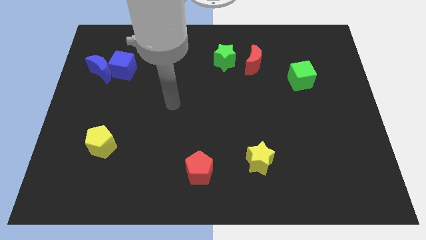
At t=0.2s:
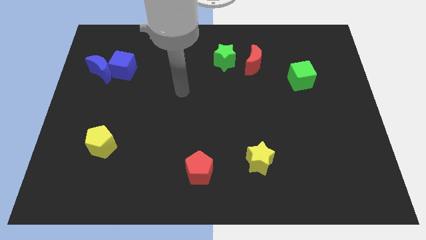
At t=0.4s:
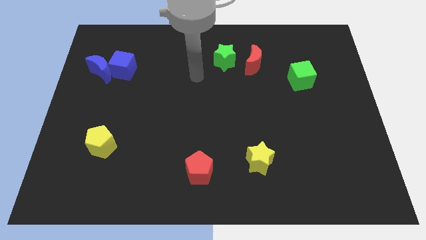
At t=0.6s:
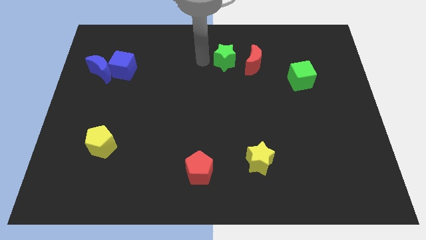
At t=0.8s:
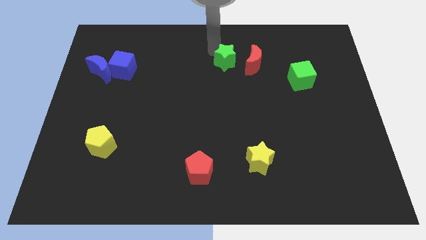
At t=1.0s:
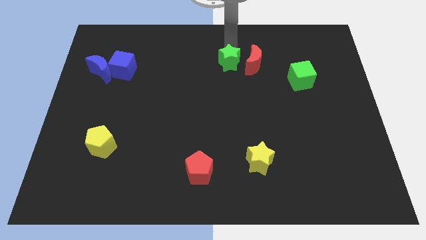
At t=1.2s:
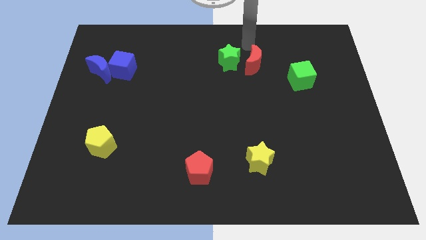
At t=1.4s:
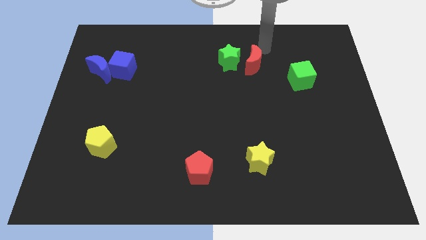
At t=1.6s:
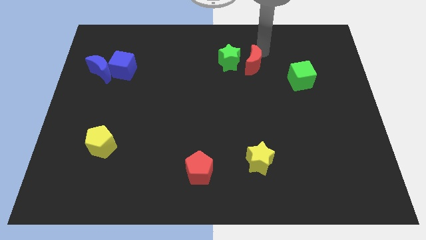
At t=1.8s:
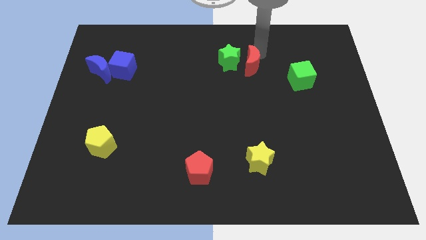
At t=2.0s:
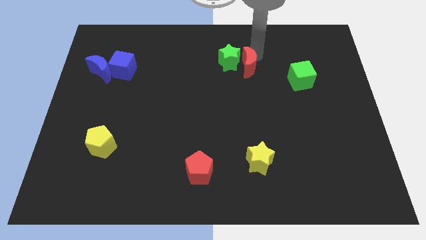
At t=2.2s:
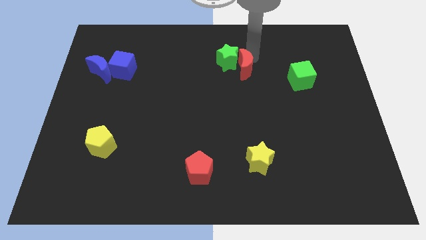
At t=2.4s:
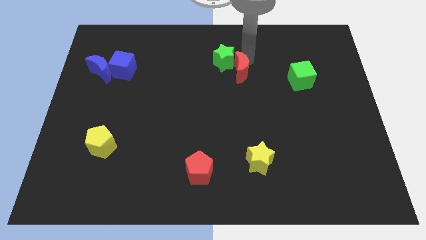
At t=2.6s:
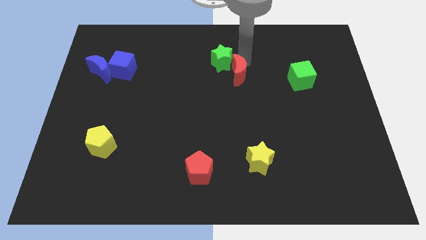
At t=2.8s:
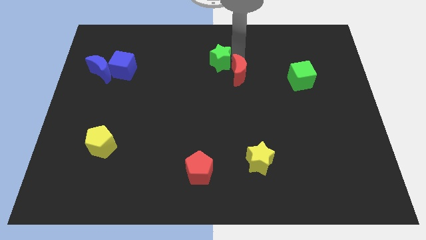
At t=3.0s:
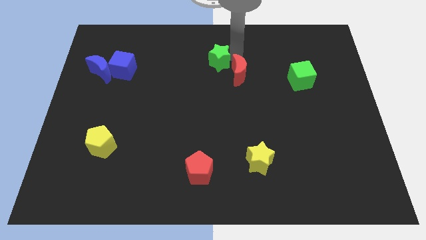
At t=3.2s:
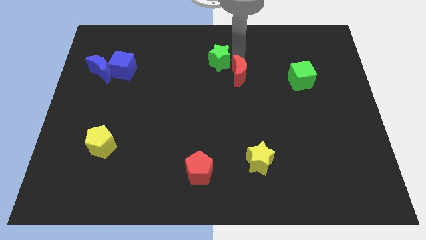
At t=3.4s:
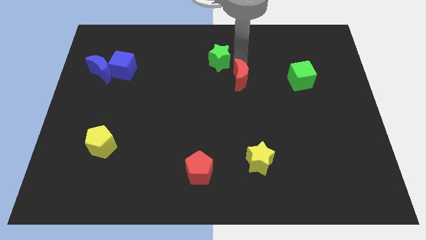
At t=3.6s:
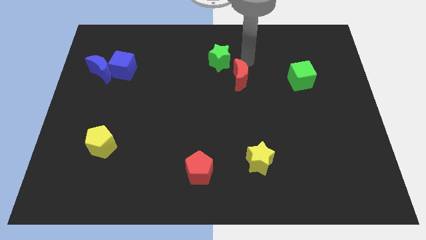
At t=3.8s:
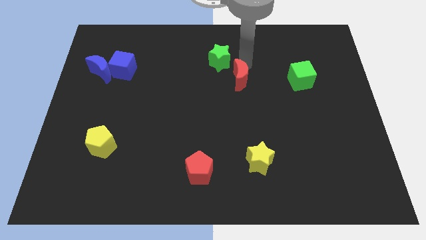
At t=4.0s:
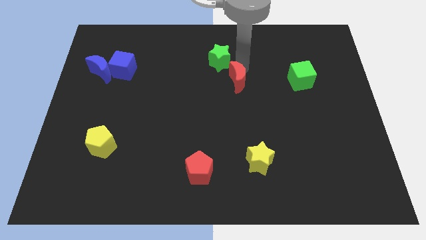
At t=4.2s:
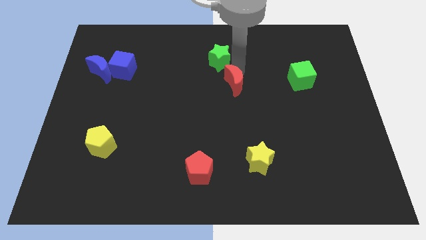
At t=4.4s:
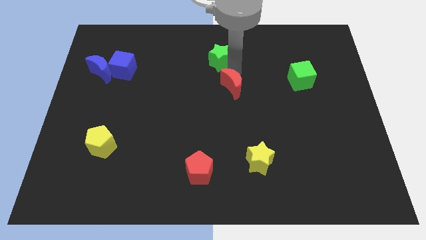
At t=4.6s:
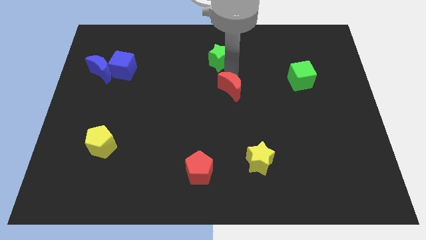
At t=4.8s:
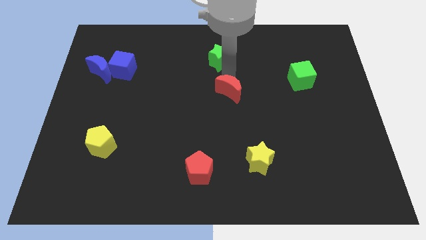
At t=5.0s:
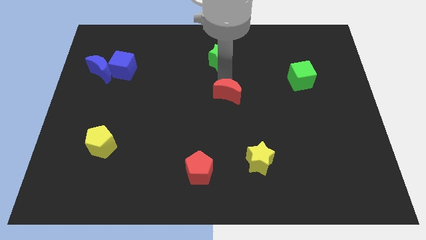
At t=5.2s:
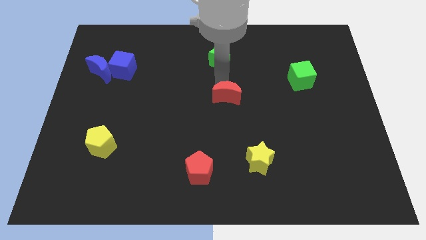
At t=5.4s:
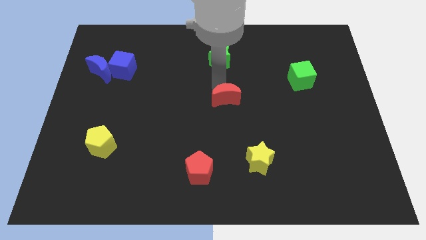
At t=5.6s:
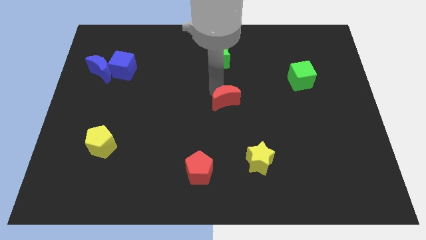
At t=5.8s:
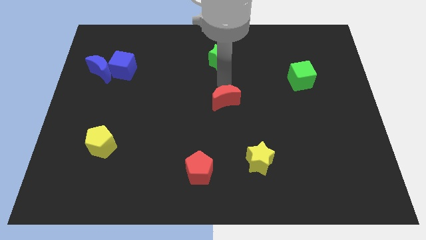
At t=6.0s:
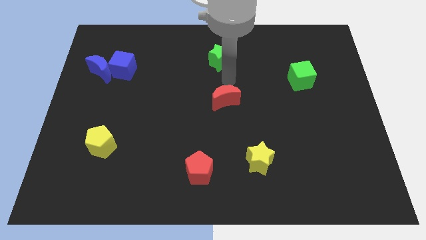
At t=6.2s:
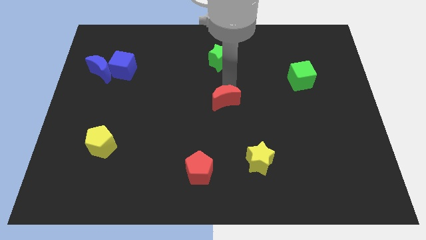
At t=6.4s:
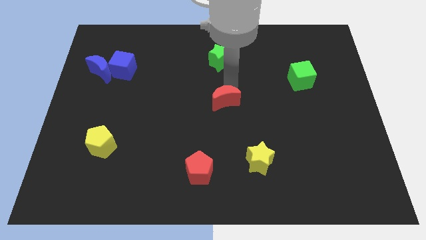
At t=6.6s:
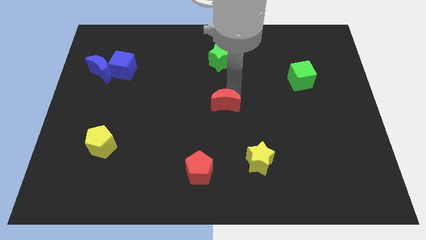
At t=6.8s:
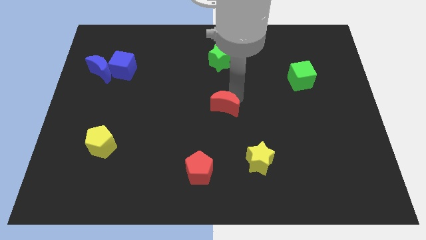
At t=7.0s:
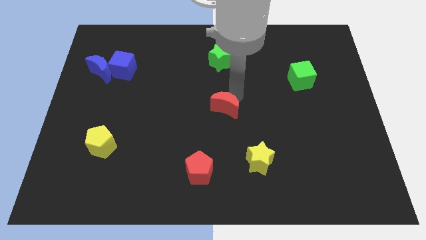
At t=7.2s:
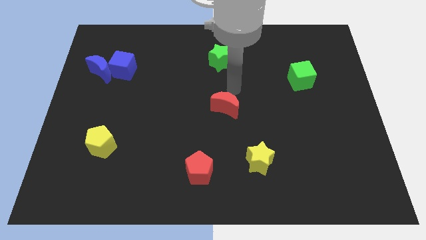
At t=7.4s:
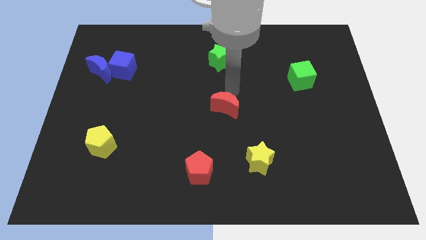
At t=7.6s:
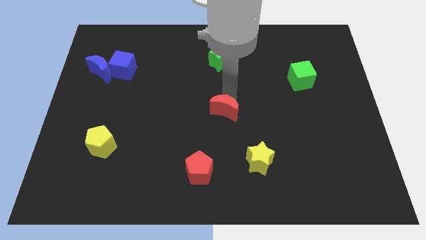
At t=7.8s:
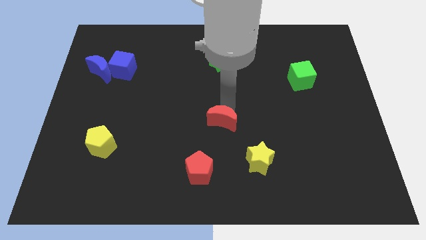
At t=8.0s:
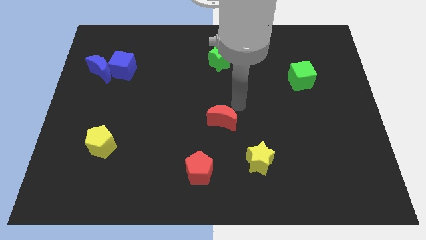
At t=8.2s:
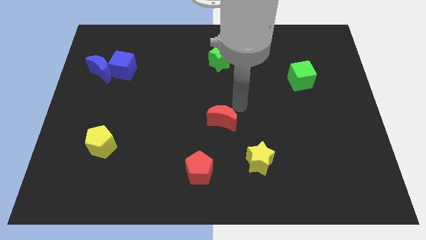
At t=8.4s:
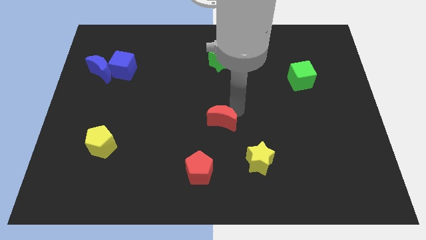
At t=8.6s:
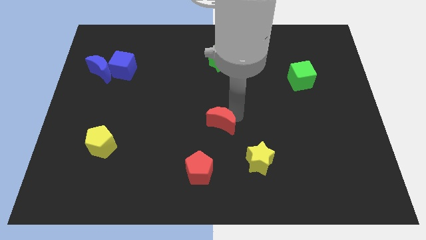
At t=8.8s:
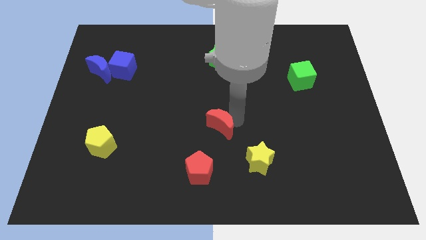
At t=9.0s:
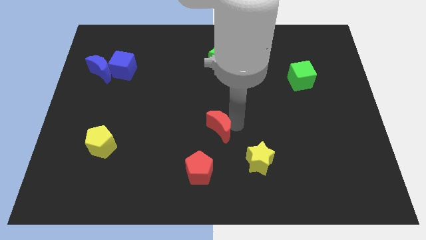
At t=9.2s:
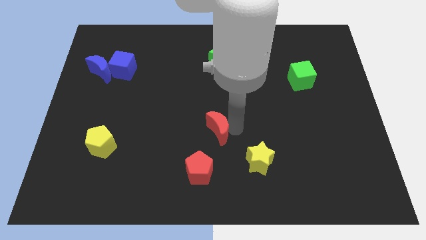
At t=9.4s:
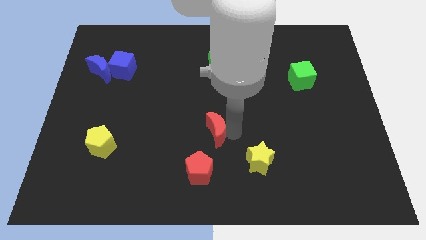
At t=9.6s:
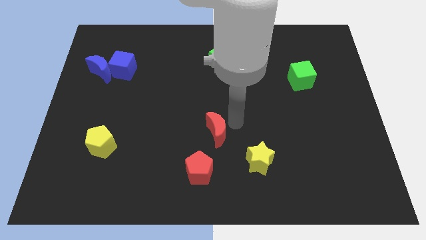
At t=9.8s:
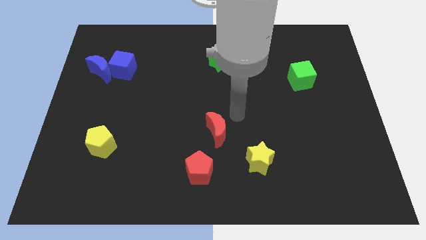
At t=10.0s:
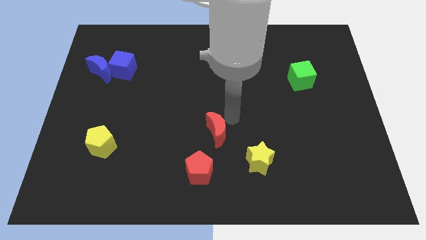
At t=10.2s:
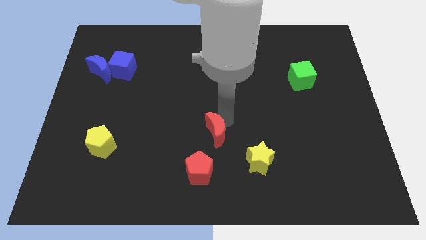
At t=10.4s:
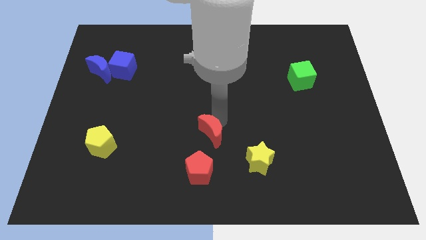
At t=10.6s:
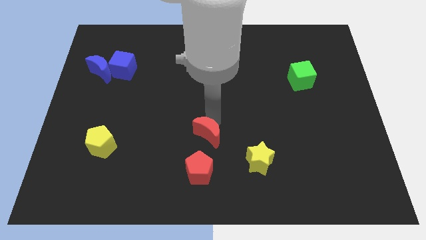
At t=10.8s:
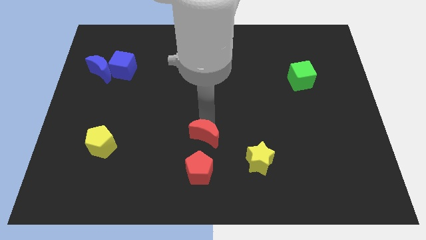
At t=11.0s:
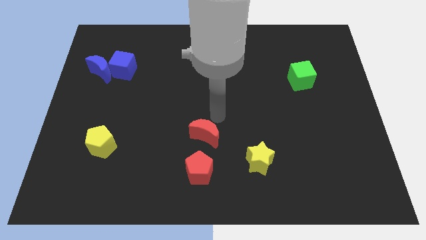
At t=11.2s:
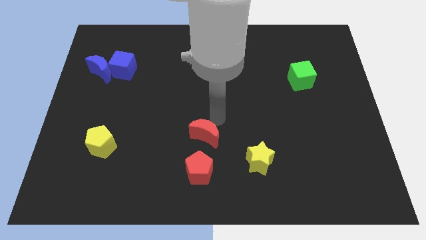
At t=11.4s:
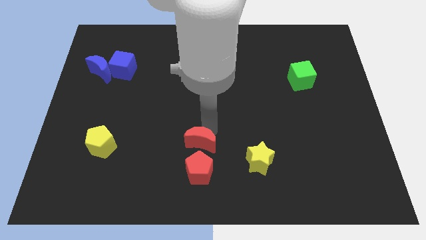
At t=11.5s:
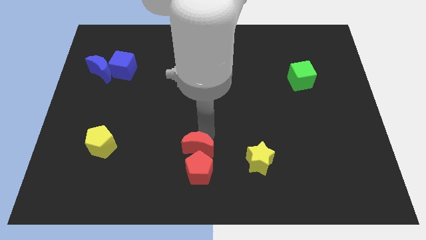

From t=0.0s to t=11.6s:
slide the red moon close to the red pentagon

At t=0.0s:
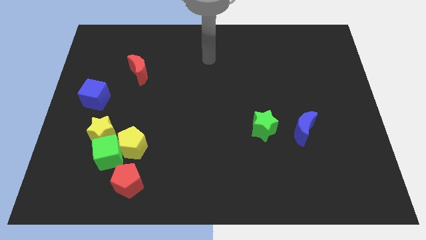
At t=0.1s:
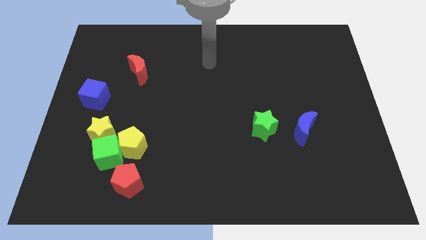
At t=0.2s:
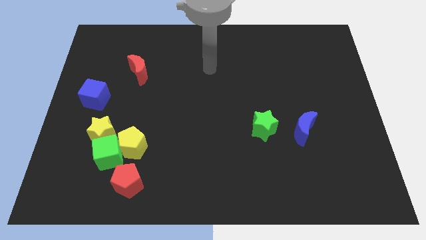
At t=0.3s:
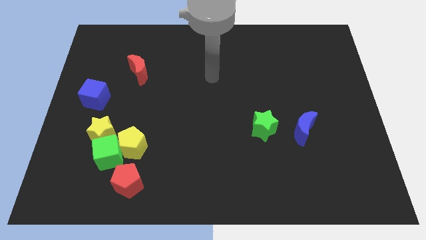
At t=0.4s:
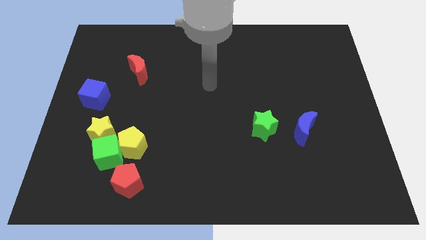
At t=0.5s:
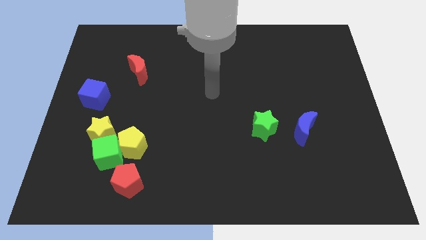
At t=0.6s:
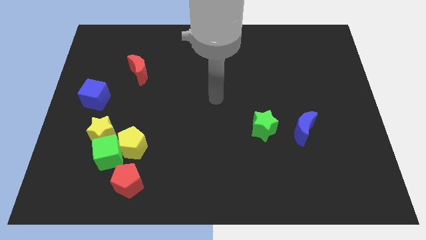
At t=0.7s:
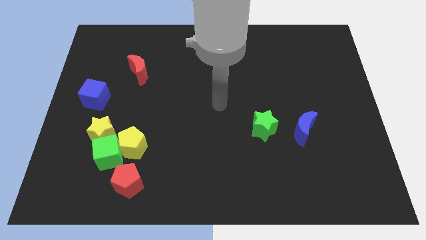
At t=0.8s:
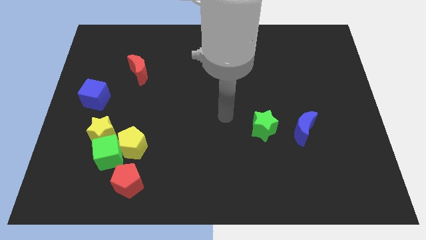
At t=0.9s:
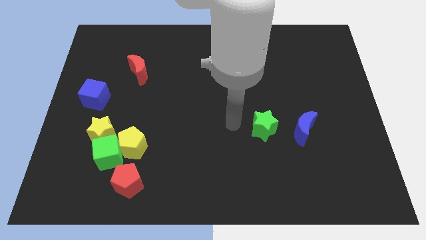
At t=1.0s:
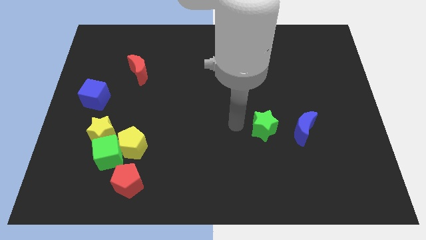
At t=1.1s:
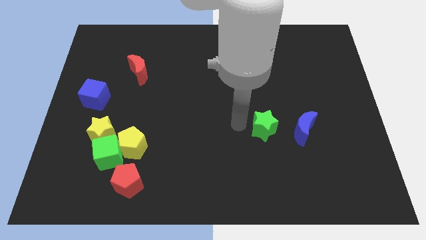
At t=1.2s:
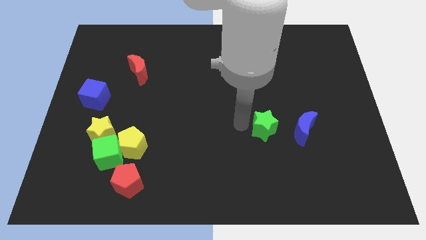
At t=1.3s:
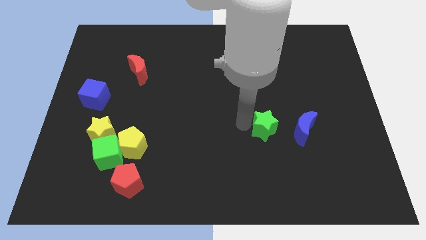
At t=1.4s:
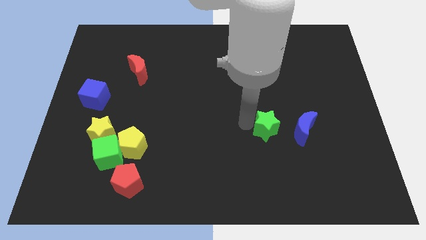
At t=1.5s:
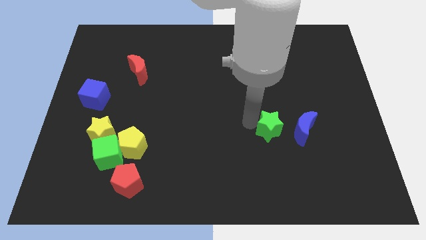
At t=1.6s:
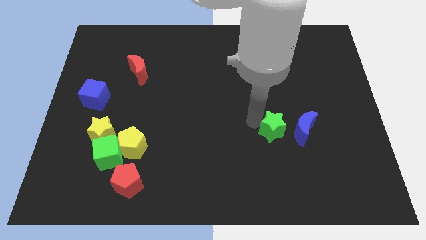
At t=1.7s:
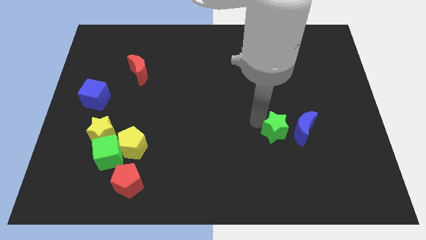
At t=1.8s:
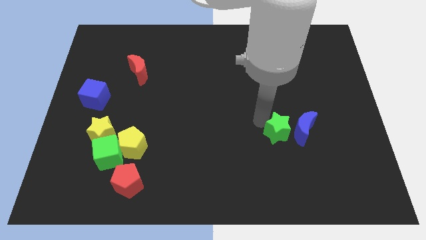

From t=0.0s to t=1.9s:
put the green star close to the blue moon
